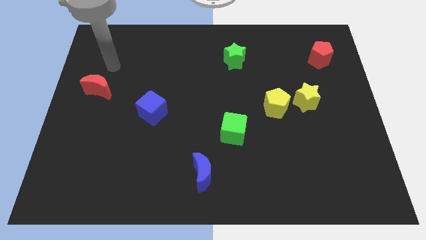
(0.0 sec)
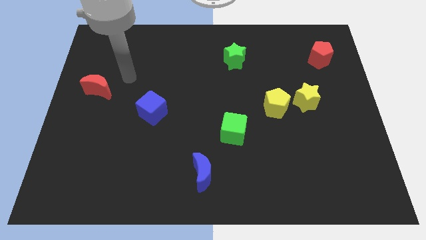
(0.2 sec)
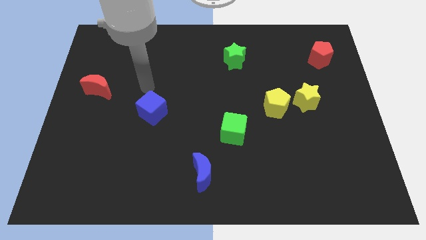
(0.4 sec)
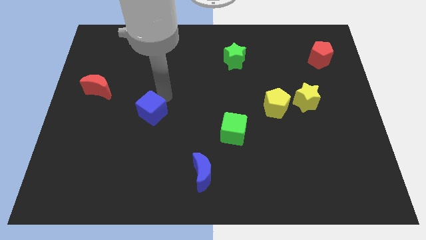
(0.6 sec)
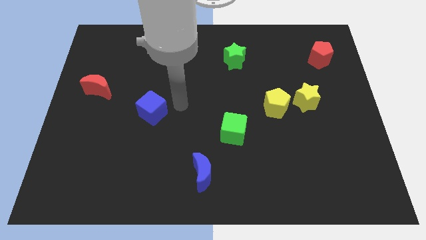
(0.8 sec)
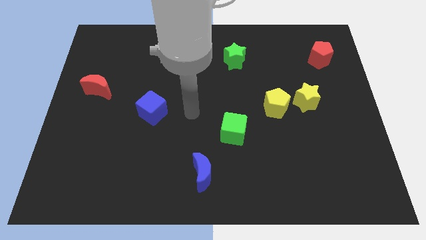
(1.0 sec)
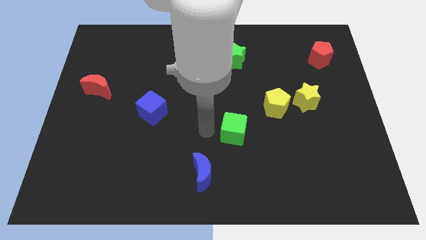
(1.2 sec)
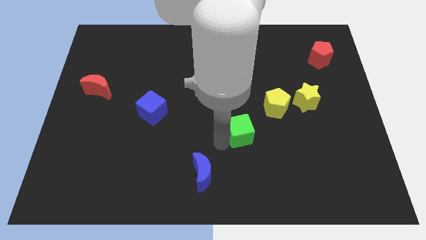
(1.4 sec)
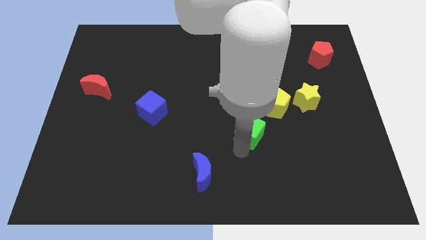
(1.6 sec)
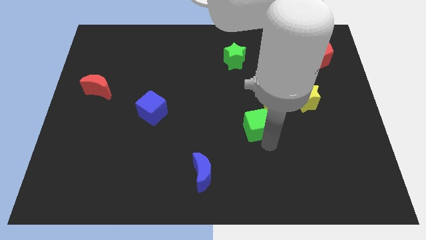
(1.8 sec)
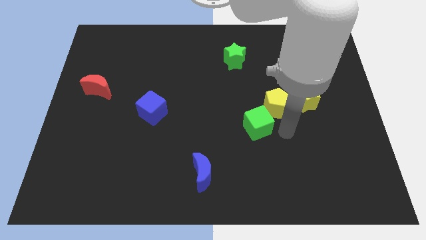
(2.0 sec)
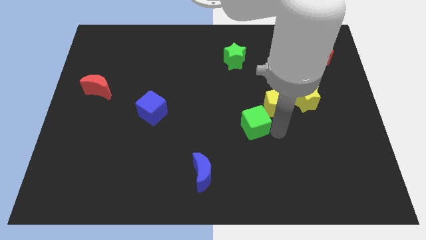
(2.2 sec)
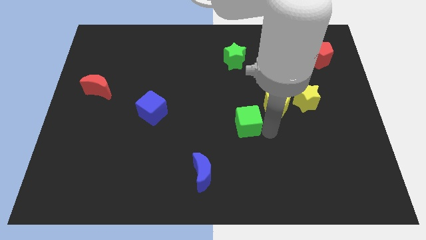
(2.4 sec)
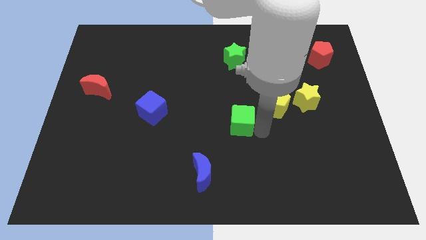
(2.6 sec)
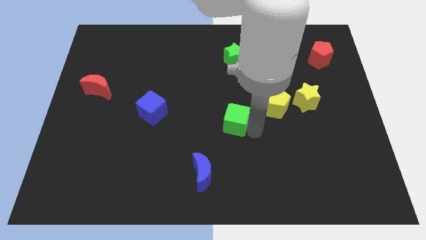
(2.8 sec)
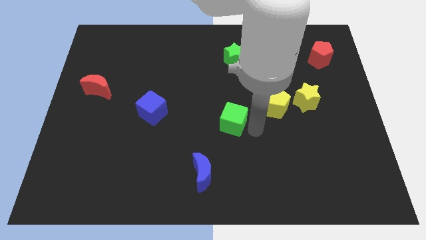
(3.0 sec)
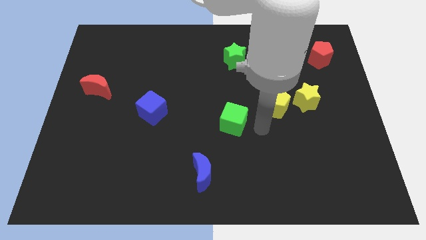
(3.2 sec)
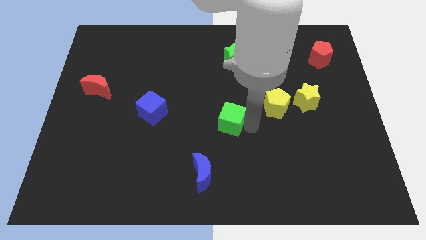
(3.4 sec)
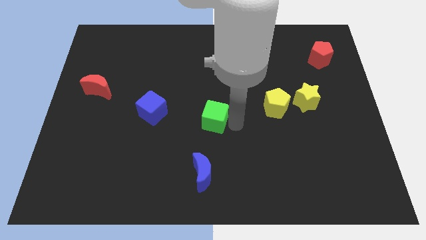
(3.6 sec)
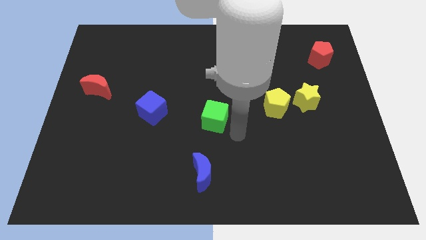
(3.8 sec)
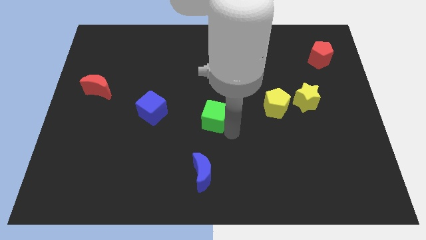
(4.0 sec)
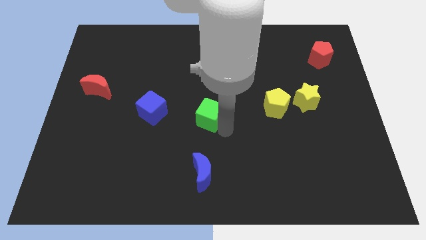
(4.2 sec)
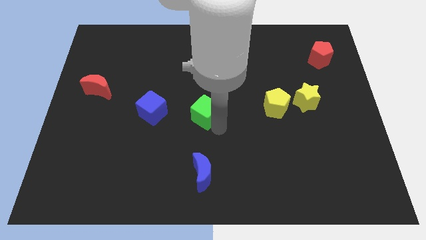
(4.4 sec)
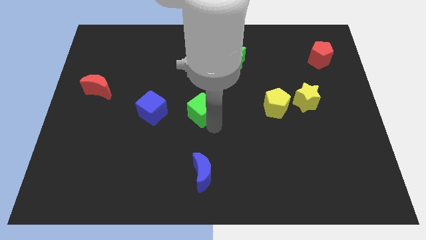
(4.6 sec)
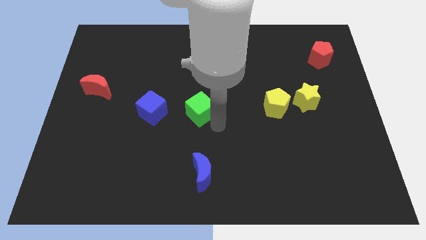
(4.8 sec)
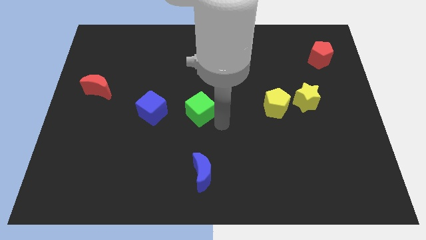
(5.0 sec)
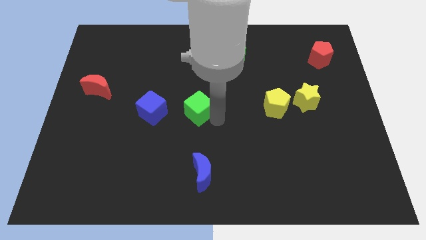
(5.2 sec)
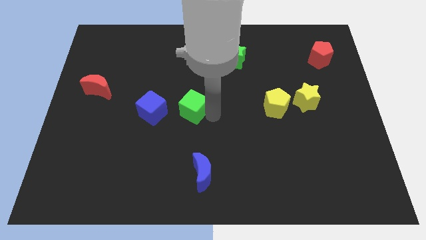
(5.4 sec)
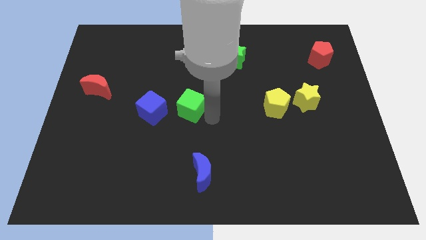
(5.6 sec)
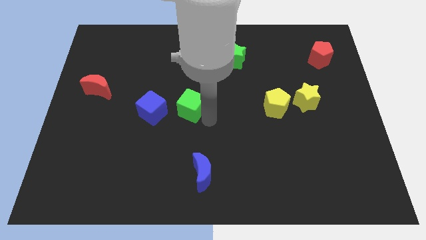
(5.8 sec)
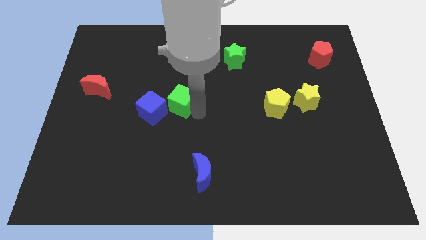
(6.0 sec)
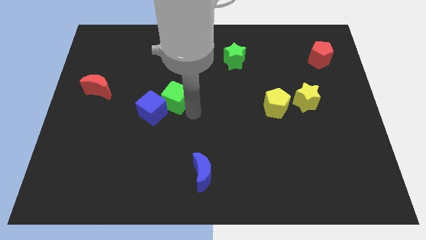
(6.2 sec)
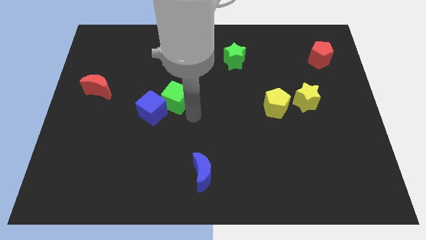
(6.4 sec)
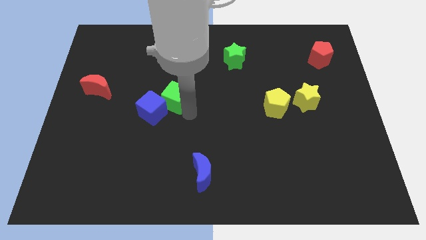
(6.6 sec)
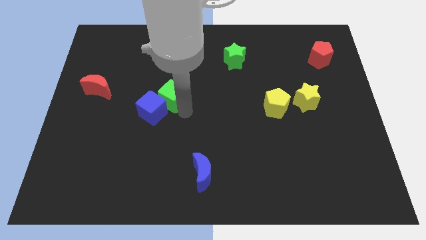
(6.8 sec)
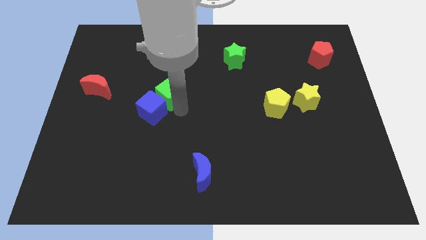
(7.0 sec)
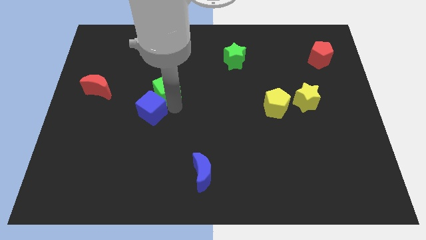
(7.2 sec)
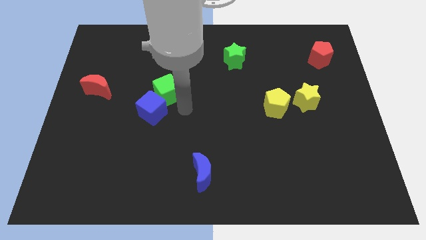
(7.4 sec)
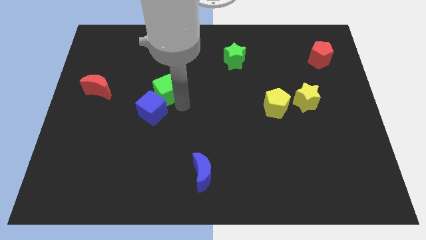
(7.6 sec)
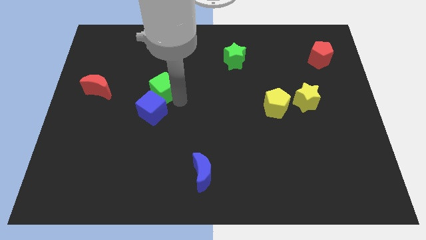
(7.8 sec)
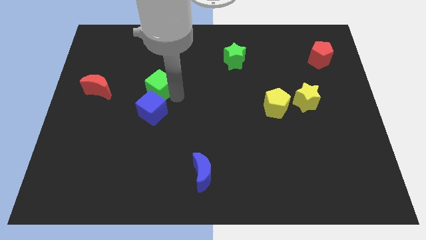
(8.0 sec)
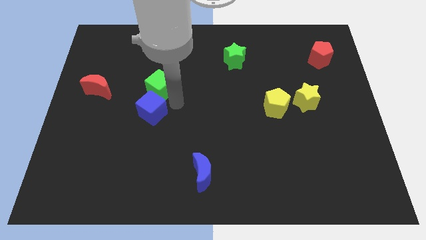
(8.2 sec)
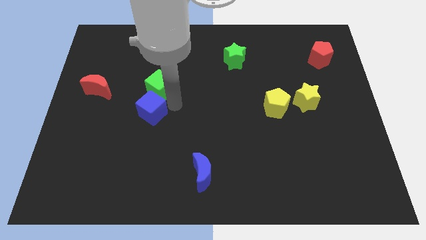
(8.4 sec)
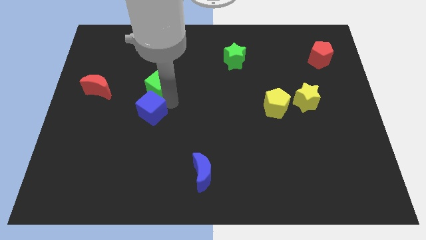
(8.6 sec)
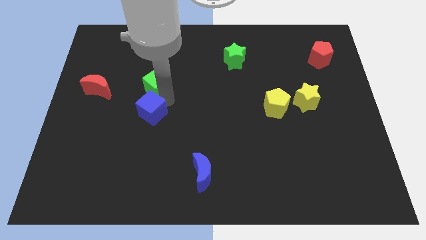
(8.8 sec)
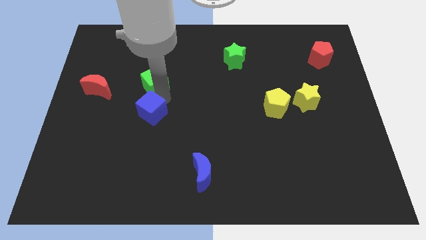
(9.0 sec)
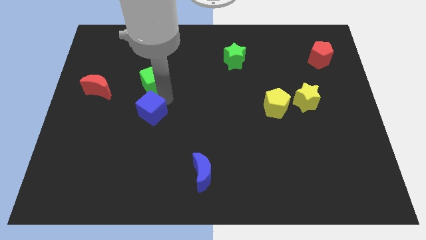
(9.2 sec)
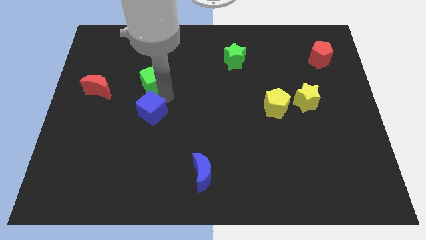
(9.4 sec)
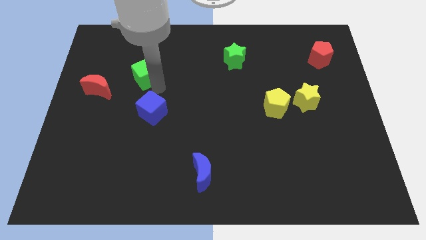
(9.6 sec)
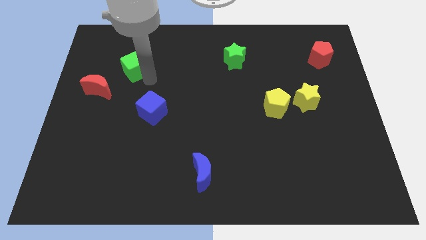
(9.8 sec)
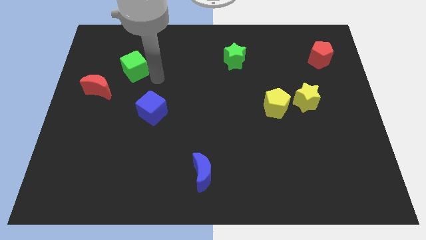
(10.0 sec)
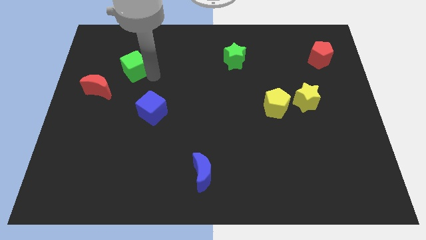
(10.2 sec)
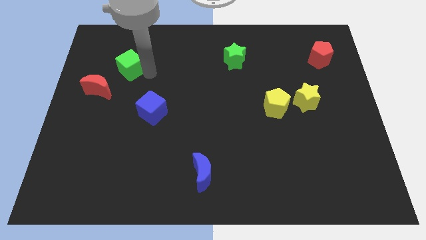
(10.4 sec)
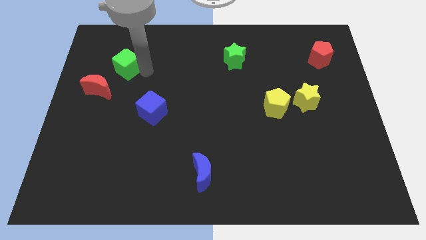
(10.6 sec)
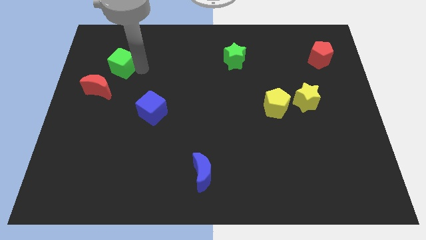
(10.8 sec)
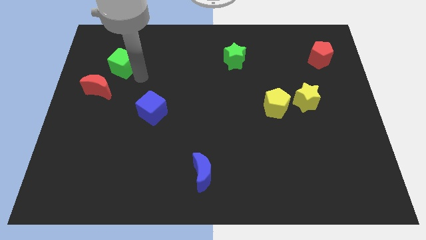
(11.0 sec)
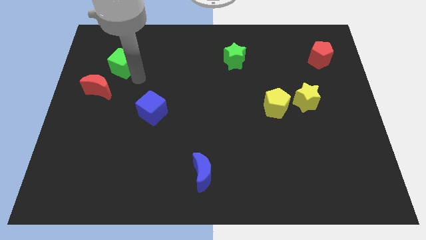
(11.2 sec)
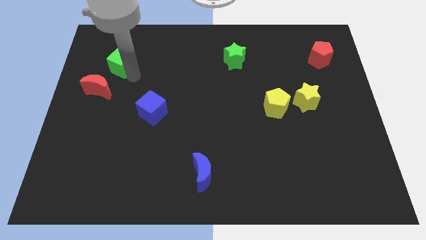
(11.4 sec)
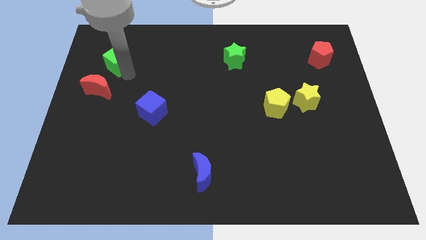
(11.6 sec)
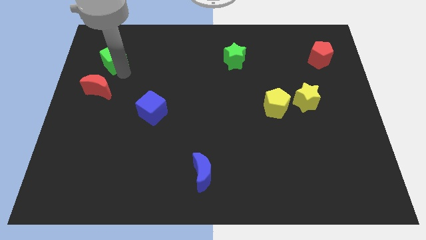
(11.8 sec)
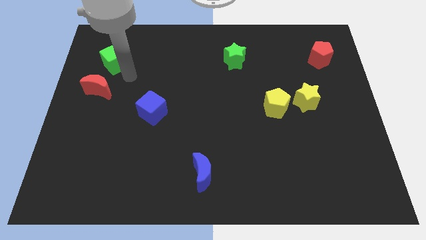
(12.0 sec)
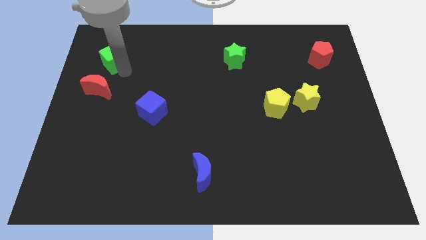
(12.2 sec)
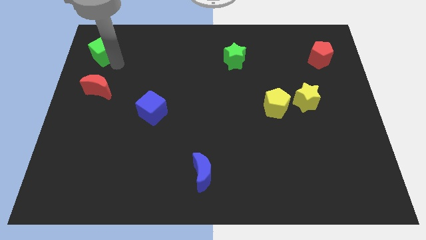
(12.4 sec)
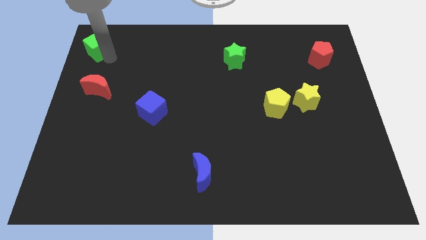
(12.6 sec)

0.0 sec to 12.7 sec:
push the green cube to the top left

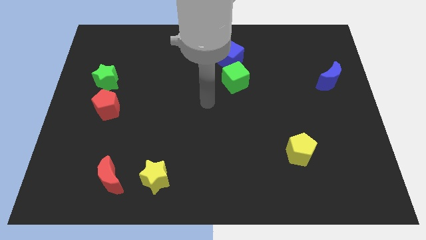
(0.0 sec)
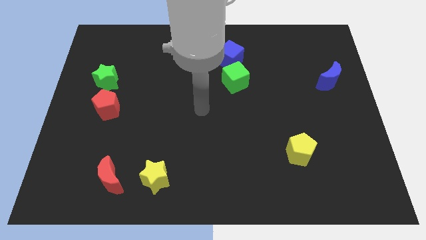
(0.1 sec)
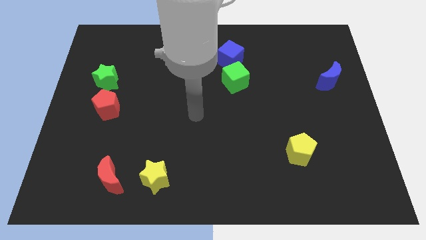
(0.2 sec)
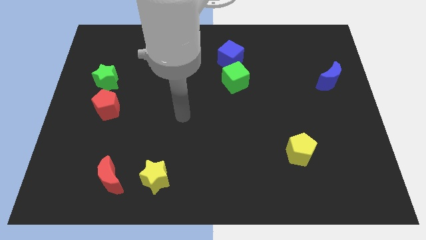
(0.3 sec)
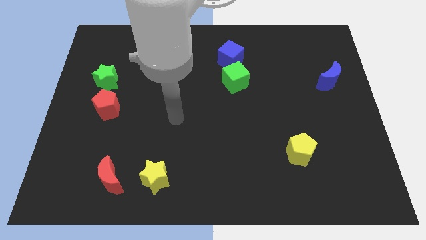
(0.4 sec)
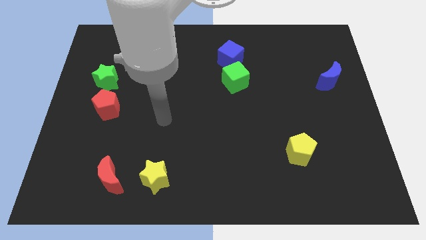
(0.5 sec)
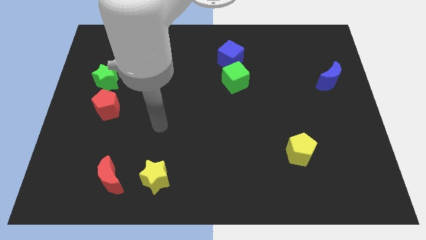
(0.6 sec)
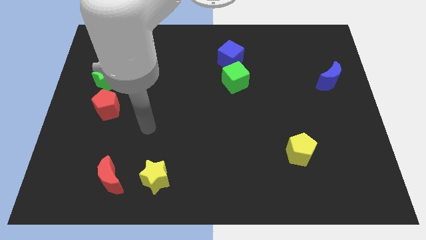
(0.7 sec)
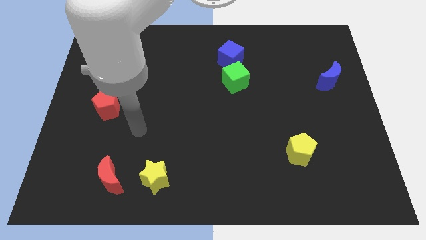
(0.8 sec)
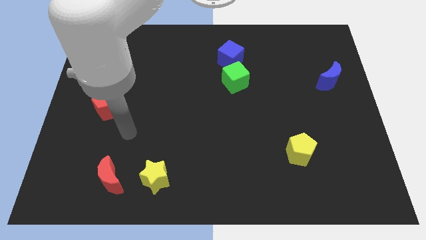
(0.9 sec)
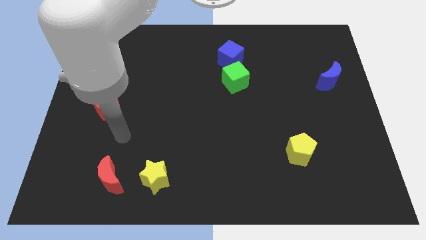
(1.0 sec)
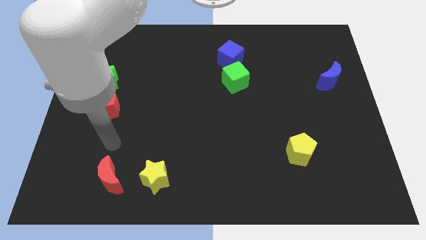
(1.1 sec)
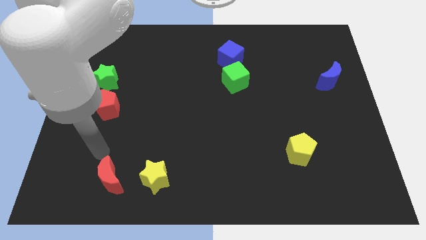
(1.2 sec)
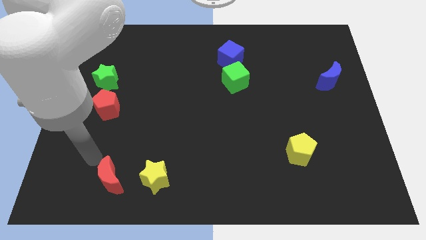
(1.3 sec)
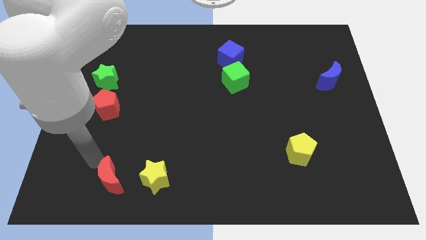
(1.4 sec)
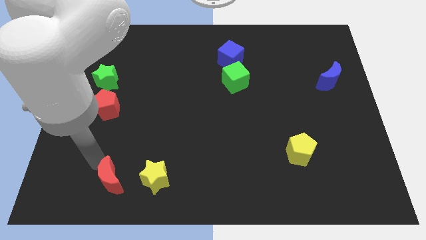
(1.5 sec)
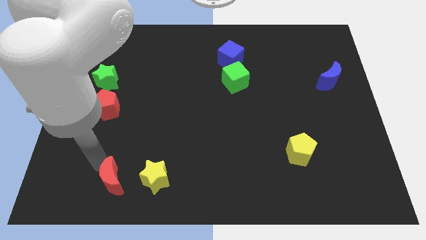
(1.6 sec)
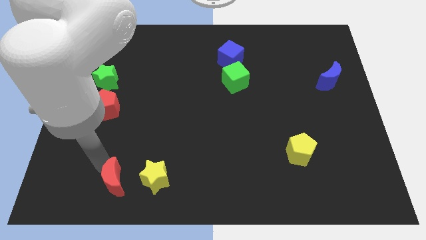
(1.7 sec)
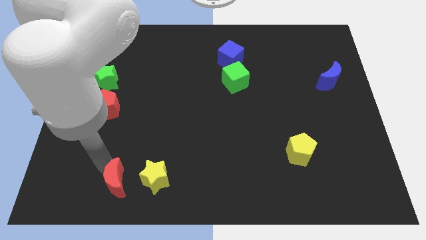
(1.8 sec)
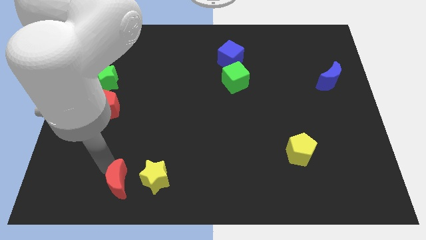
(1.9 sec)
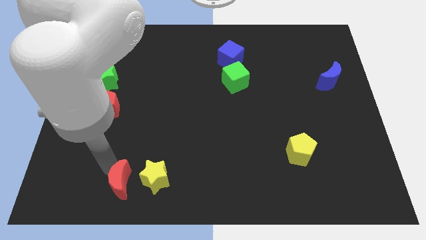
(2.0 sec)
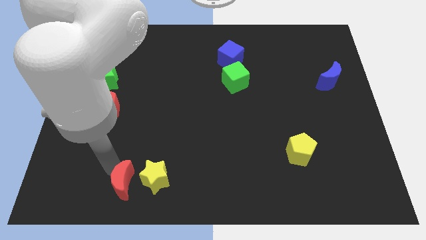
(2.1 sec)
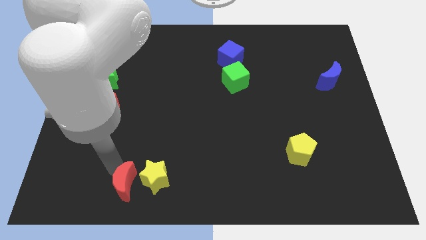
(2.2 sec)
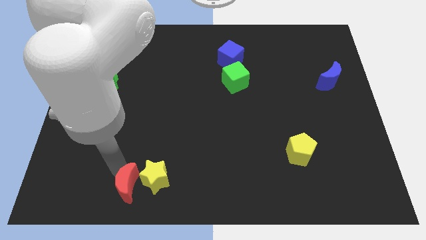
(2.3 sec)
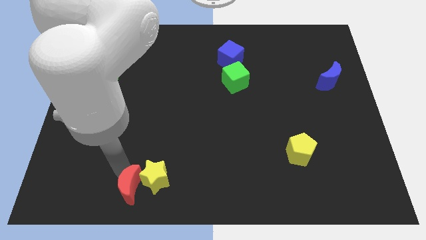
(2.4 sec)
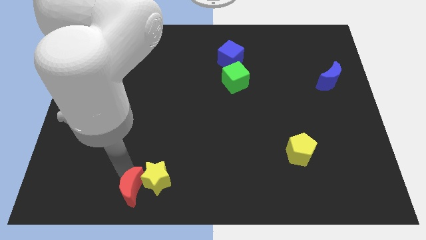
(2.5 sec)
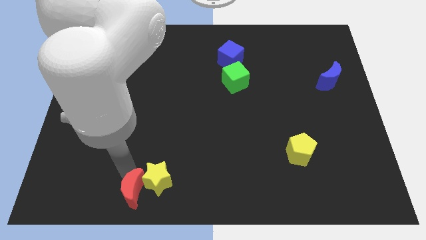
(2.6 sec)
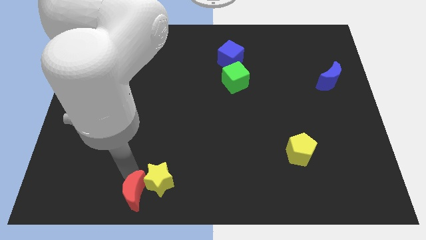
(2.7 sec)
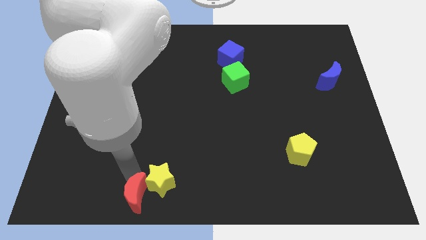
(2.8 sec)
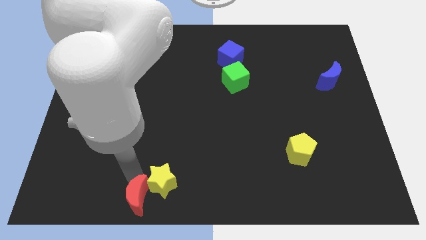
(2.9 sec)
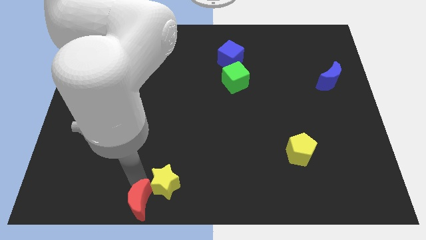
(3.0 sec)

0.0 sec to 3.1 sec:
move the red moon to the bottom side
